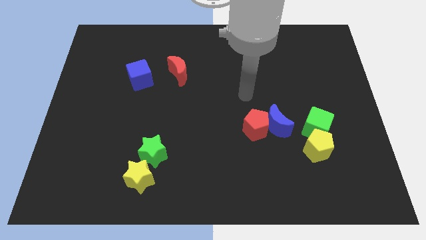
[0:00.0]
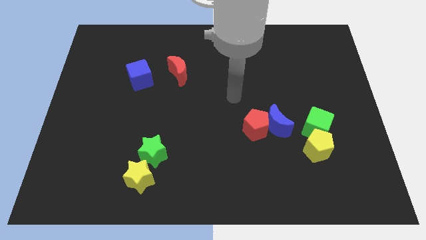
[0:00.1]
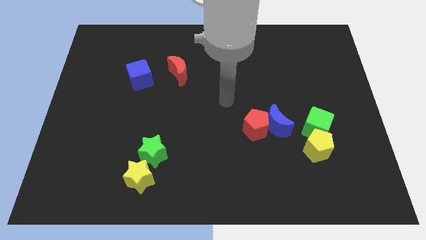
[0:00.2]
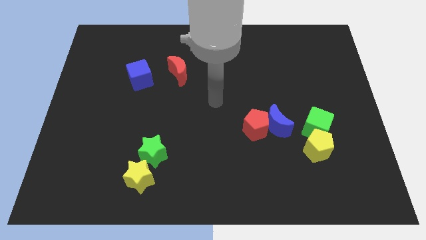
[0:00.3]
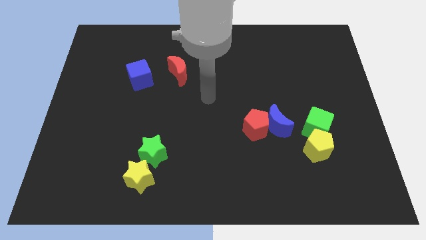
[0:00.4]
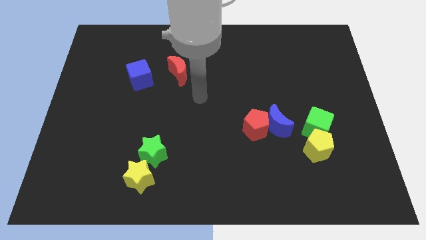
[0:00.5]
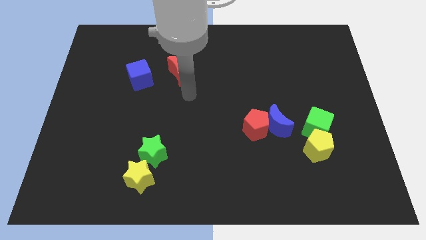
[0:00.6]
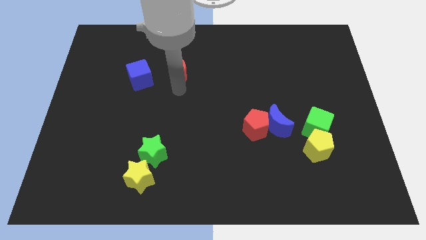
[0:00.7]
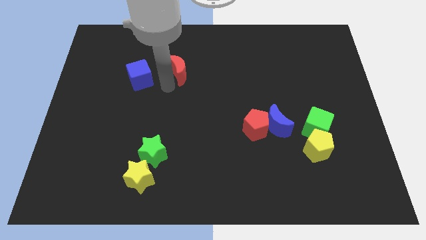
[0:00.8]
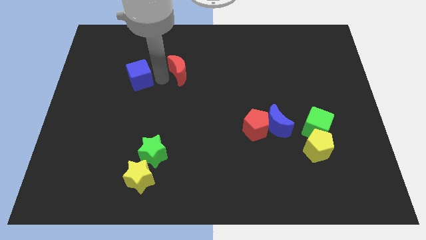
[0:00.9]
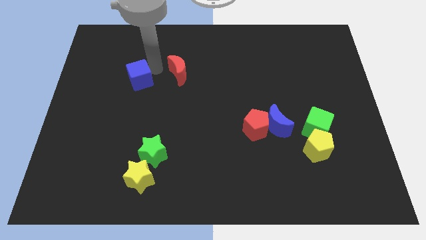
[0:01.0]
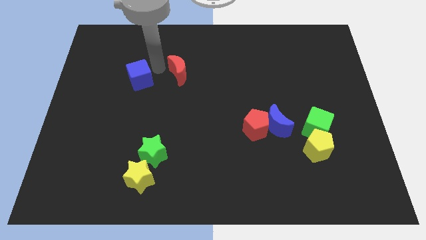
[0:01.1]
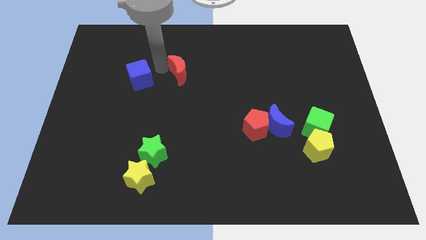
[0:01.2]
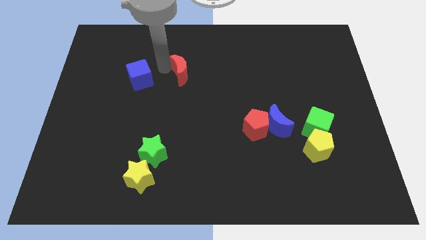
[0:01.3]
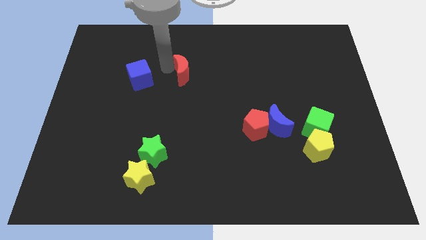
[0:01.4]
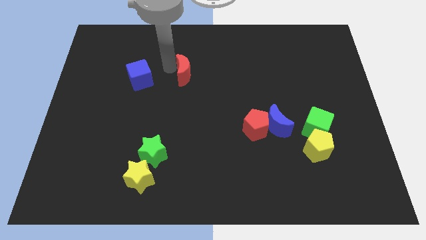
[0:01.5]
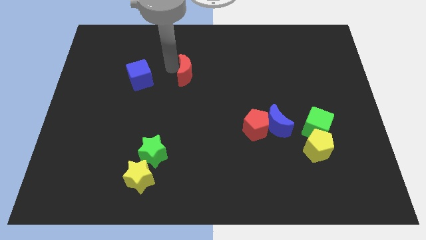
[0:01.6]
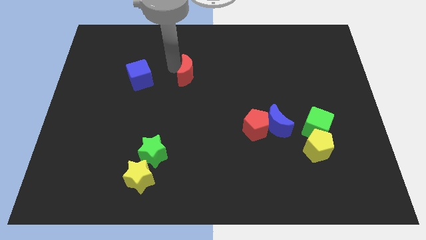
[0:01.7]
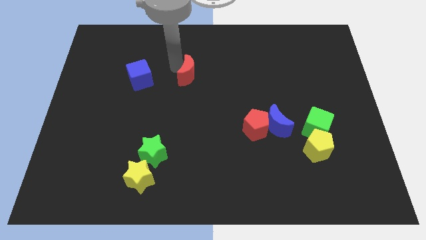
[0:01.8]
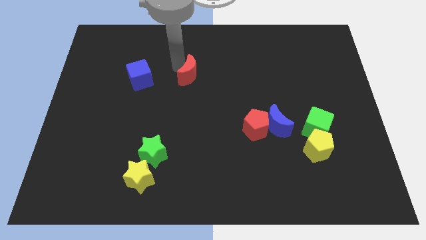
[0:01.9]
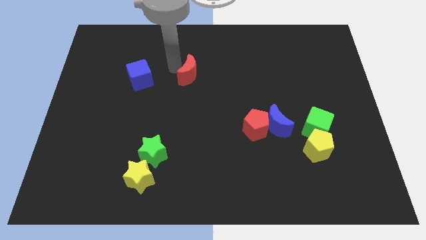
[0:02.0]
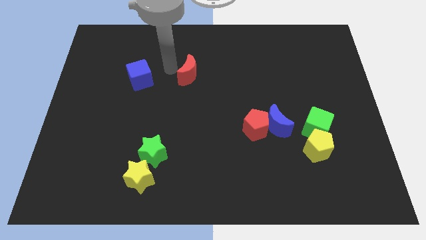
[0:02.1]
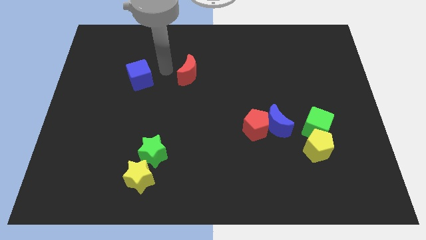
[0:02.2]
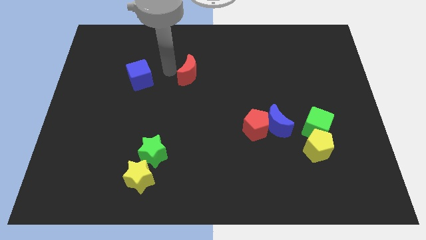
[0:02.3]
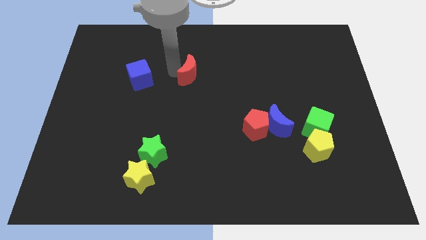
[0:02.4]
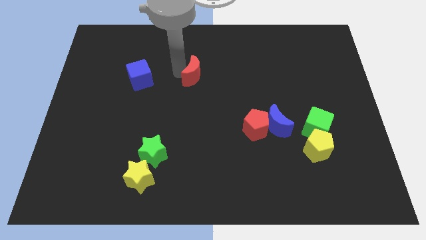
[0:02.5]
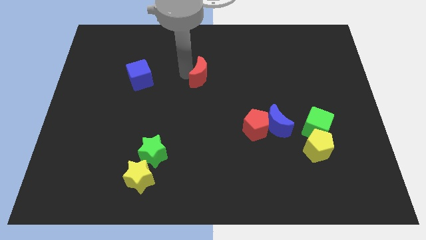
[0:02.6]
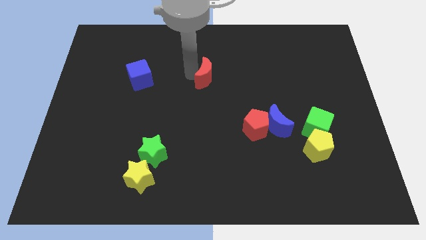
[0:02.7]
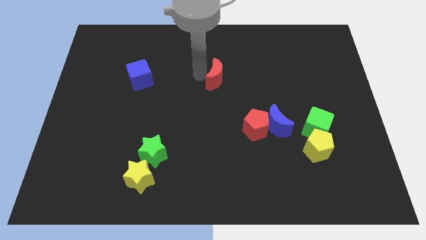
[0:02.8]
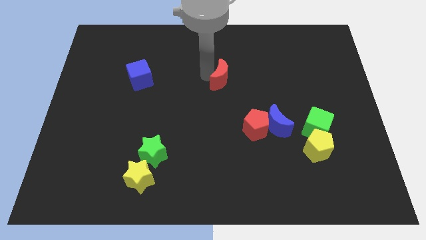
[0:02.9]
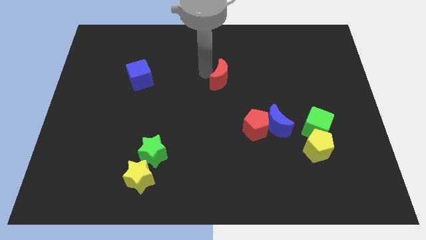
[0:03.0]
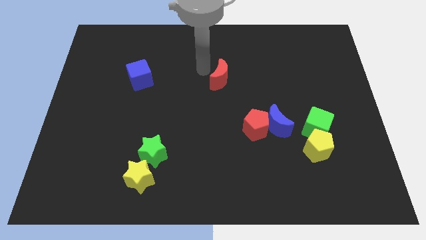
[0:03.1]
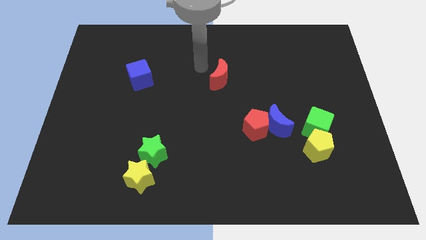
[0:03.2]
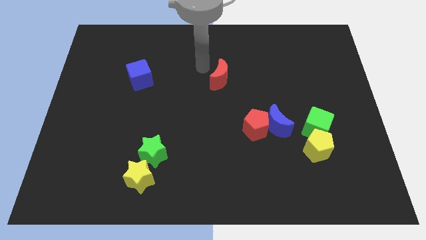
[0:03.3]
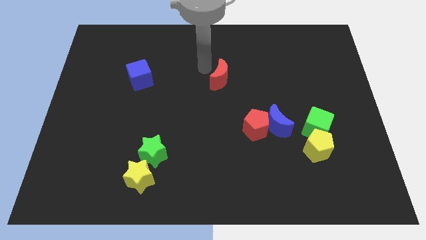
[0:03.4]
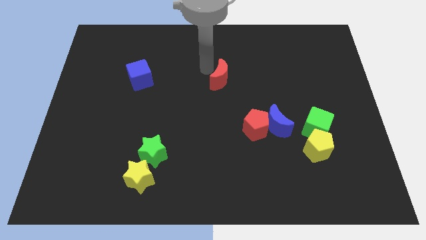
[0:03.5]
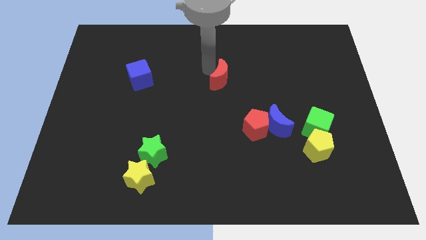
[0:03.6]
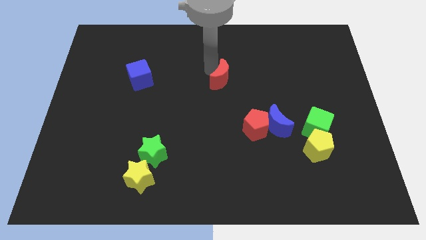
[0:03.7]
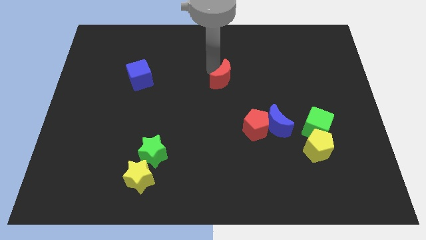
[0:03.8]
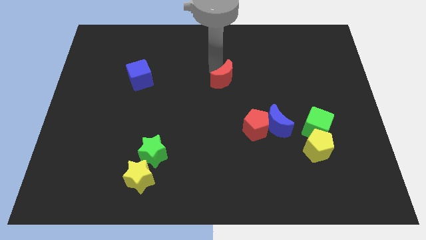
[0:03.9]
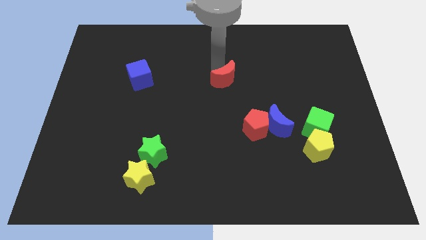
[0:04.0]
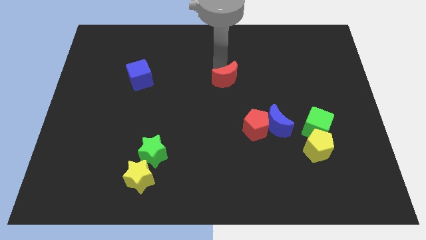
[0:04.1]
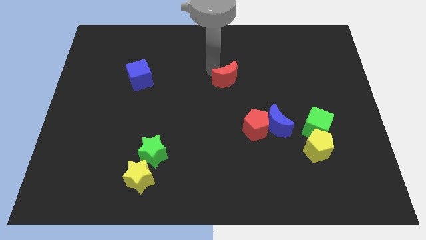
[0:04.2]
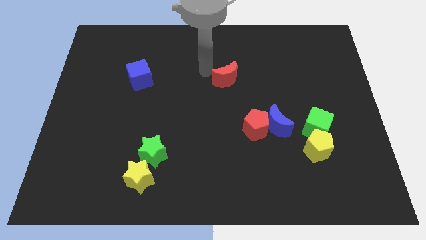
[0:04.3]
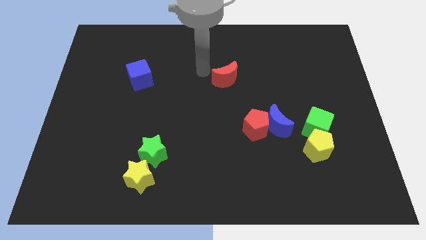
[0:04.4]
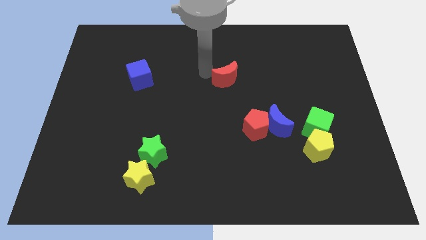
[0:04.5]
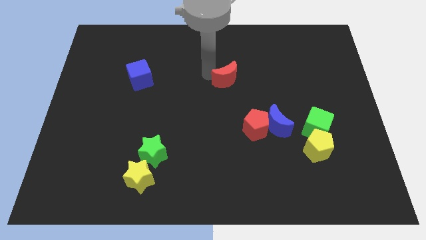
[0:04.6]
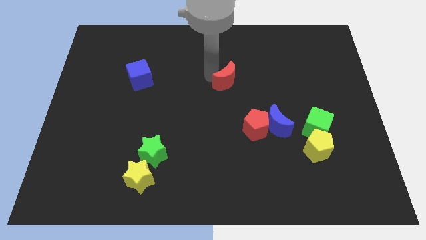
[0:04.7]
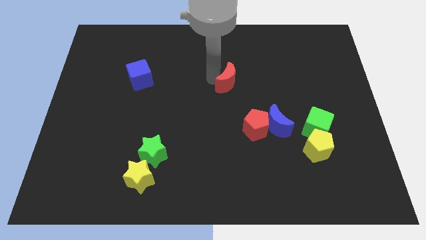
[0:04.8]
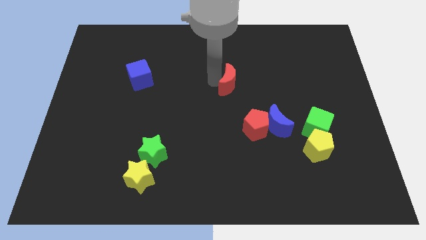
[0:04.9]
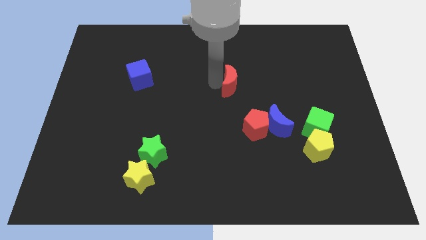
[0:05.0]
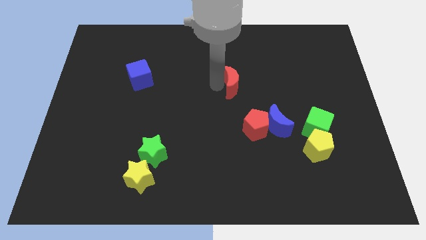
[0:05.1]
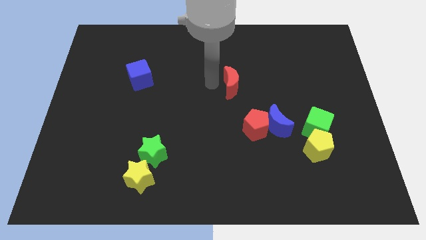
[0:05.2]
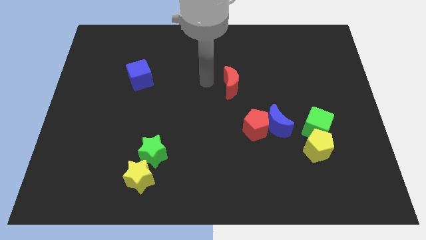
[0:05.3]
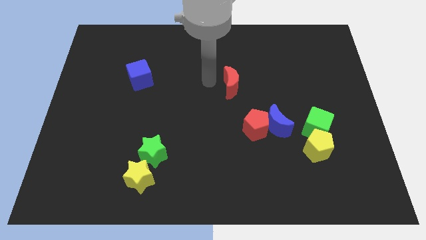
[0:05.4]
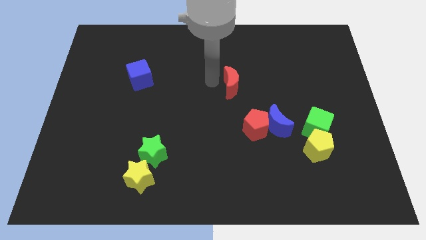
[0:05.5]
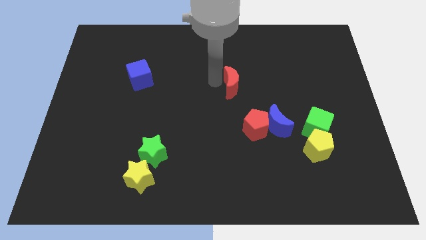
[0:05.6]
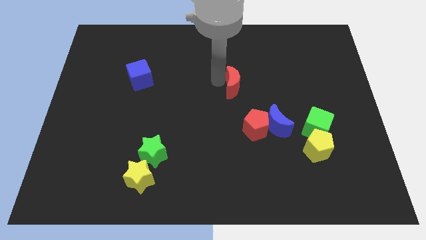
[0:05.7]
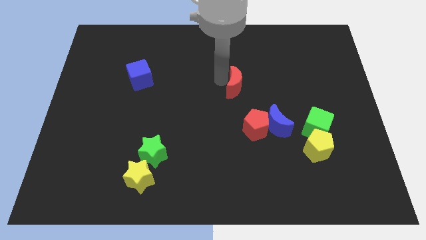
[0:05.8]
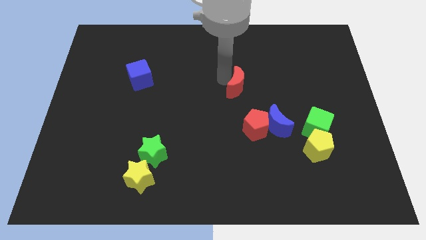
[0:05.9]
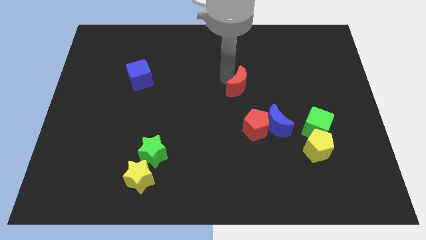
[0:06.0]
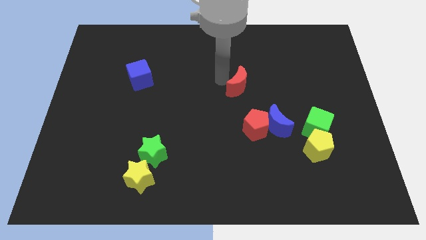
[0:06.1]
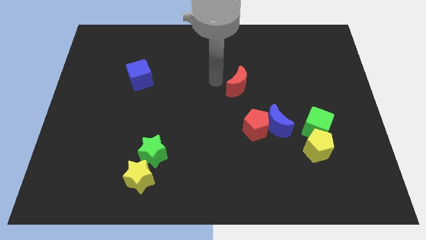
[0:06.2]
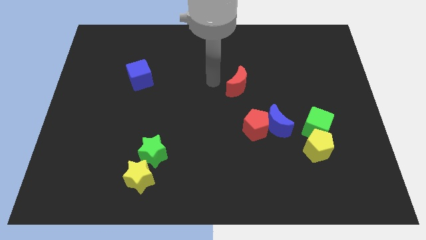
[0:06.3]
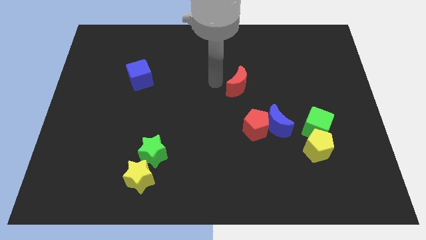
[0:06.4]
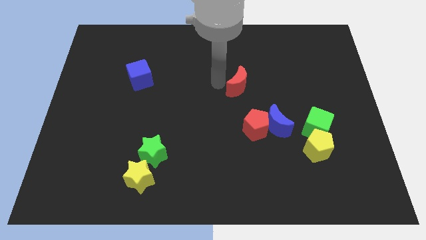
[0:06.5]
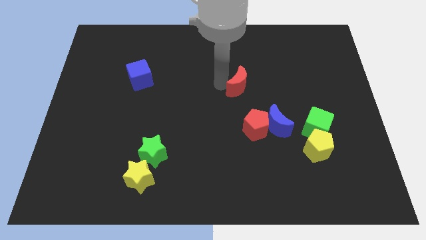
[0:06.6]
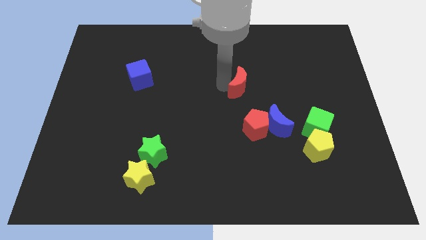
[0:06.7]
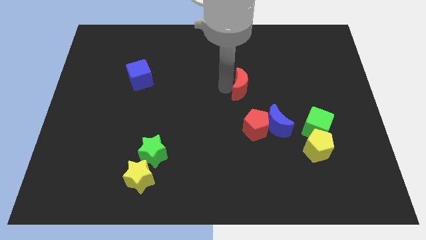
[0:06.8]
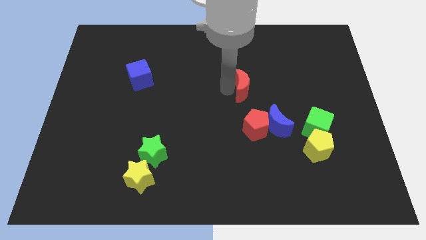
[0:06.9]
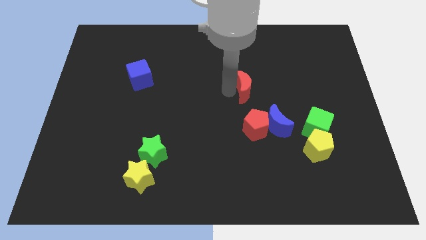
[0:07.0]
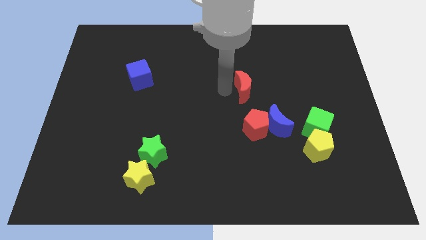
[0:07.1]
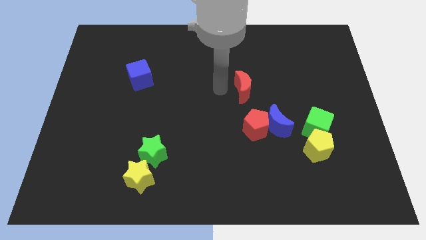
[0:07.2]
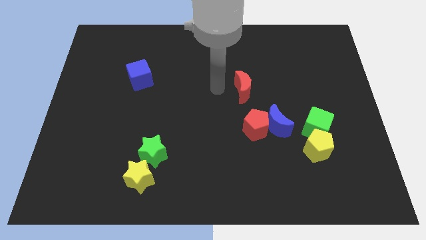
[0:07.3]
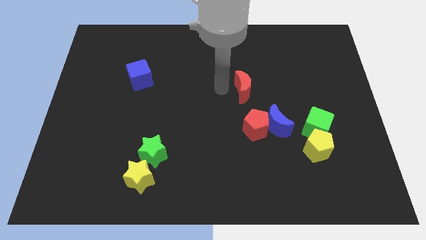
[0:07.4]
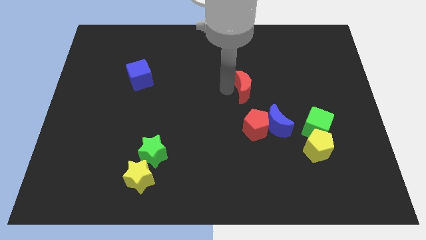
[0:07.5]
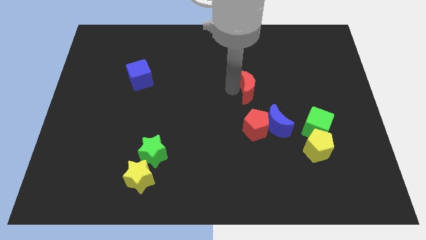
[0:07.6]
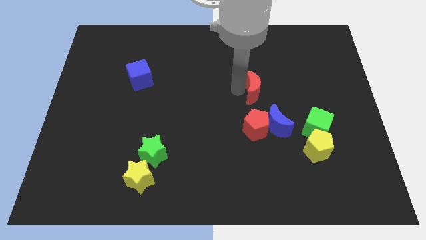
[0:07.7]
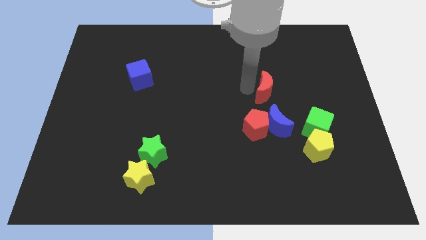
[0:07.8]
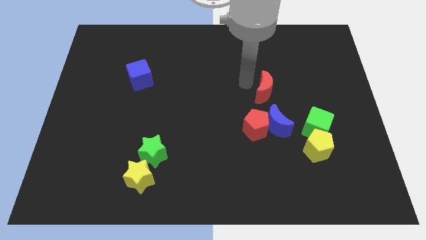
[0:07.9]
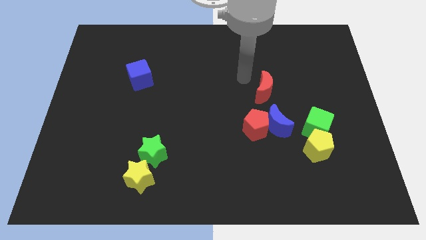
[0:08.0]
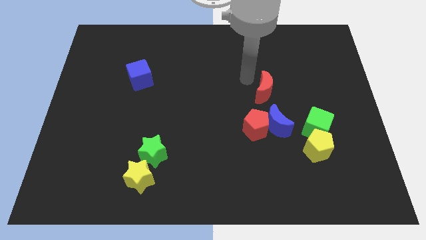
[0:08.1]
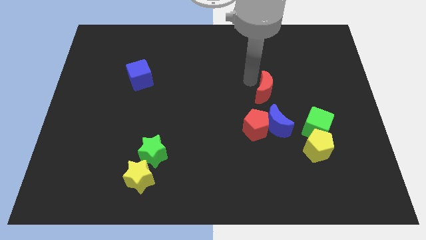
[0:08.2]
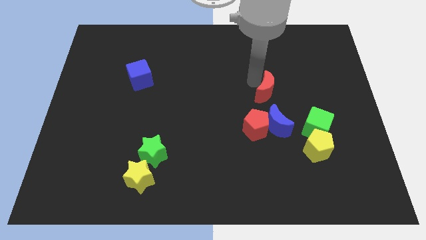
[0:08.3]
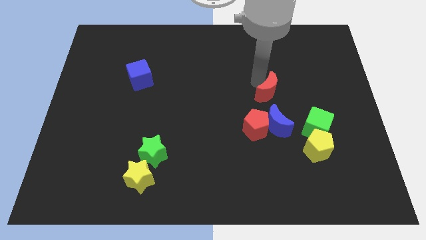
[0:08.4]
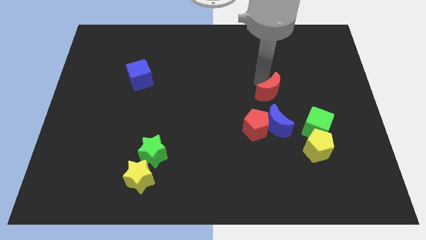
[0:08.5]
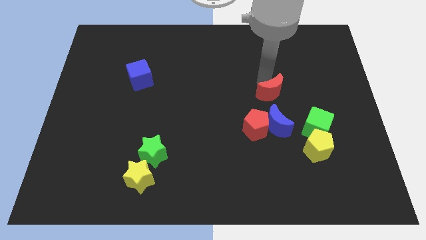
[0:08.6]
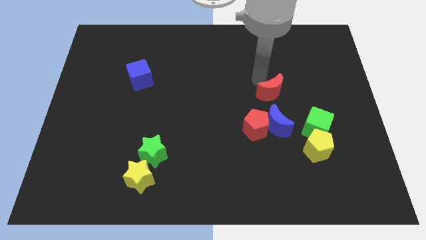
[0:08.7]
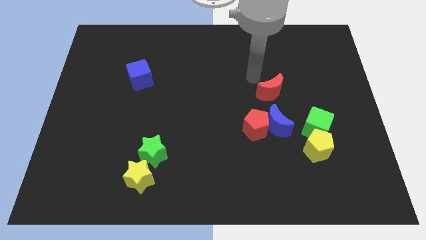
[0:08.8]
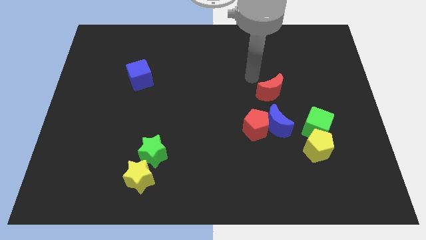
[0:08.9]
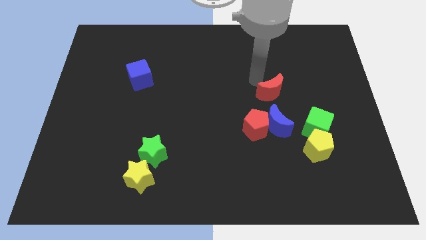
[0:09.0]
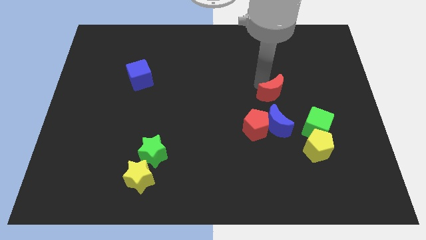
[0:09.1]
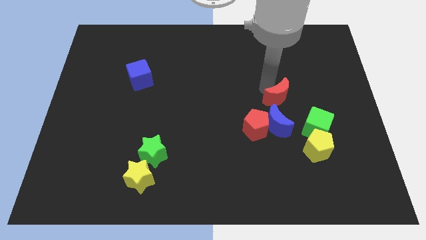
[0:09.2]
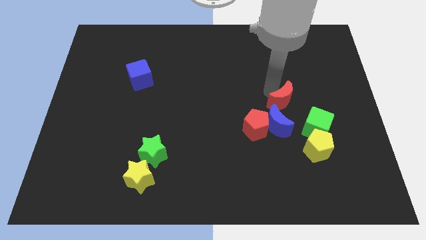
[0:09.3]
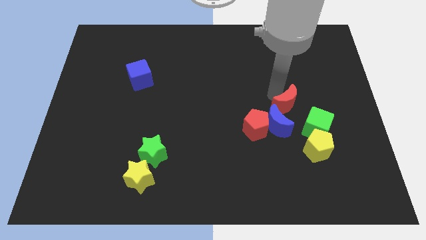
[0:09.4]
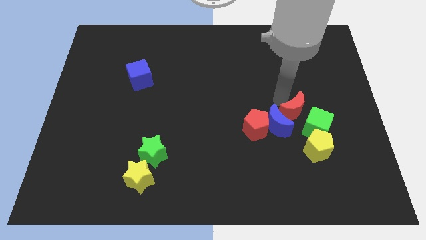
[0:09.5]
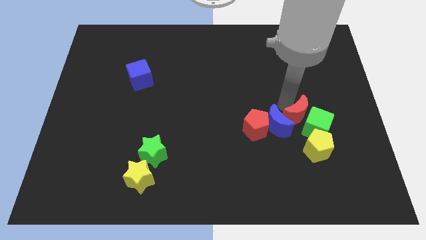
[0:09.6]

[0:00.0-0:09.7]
move the red moon towards the green cube
